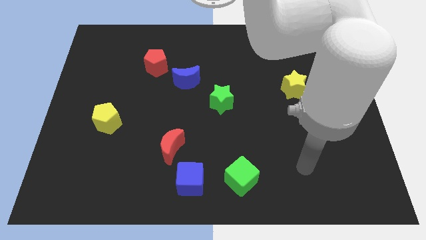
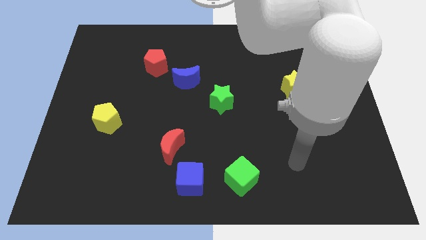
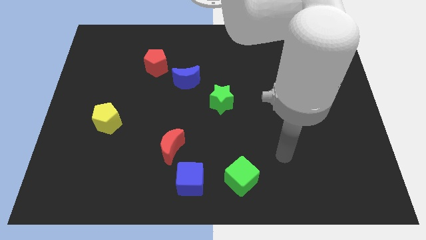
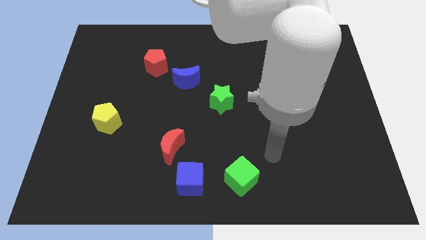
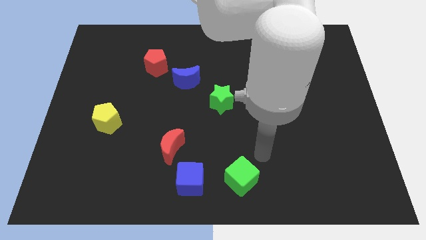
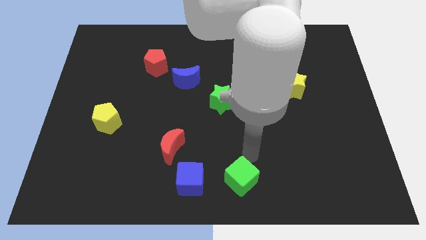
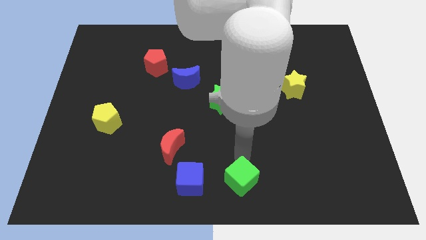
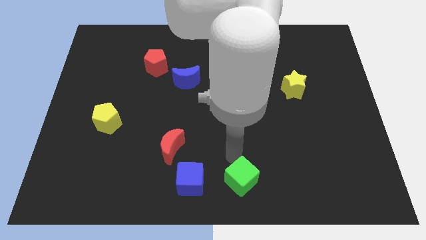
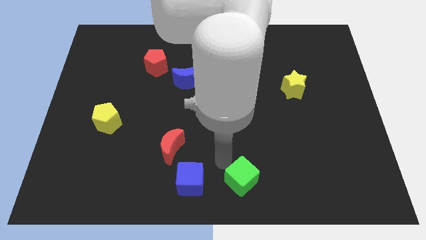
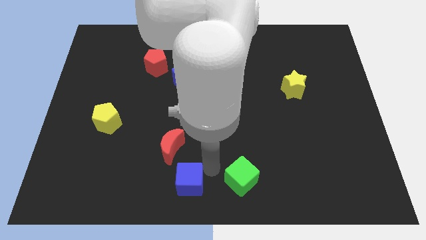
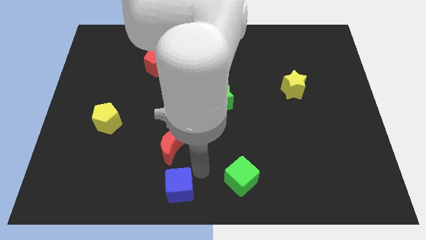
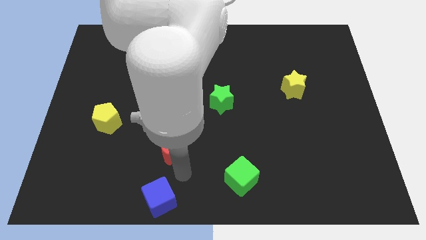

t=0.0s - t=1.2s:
move the red moon away from the blue cube

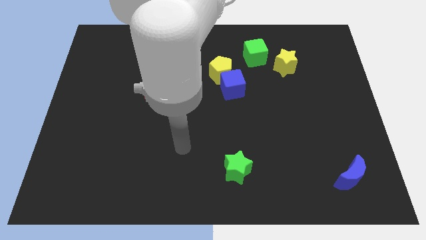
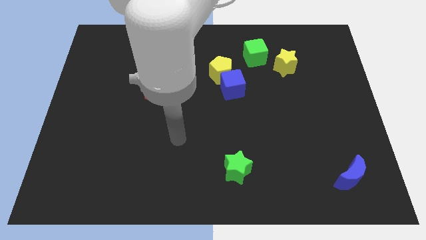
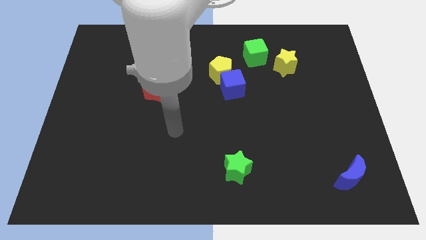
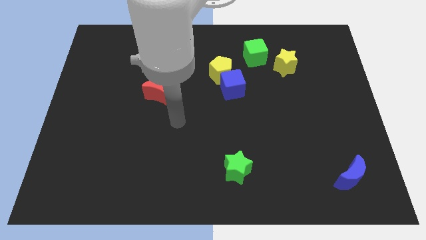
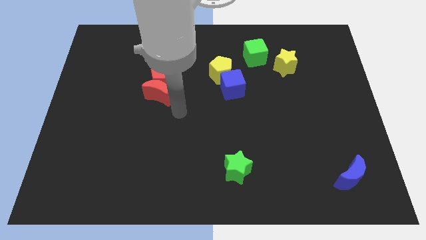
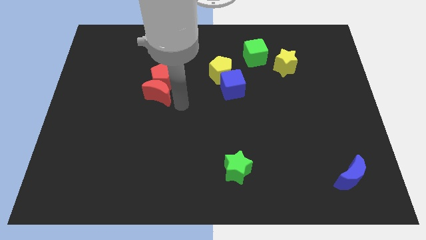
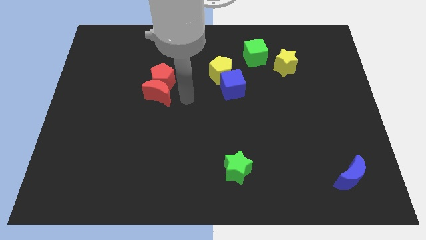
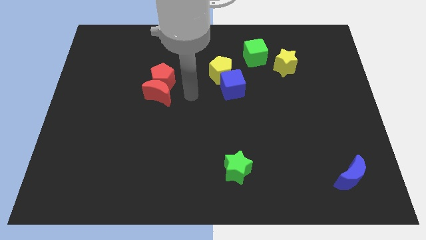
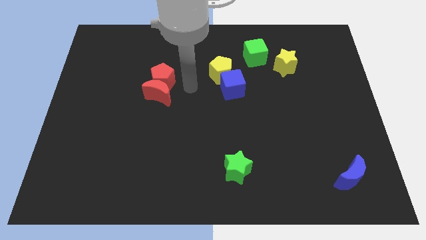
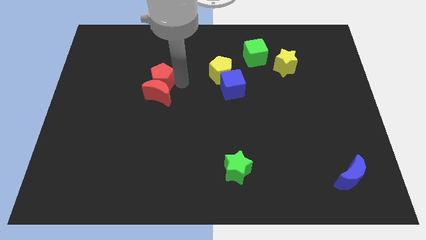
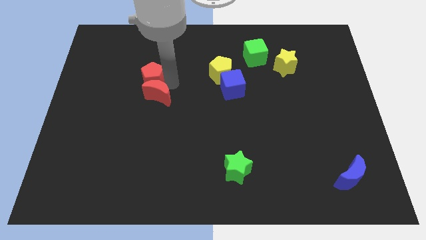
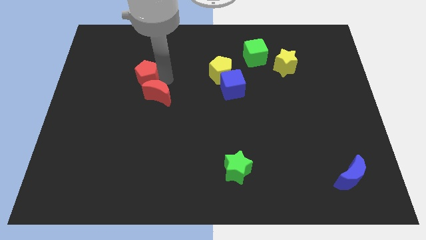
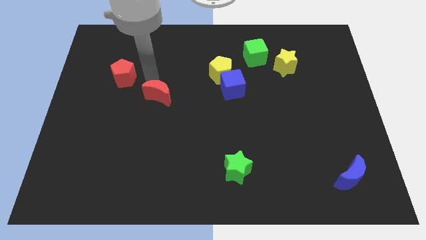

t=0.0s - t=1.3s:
separate the red moon from the red pentagon

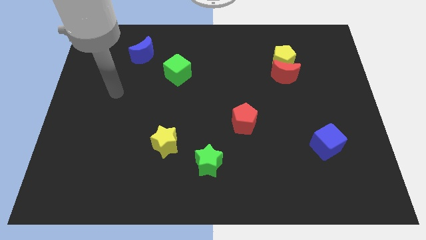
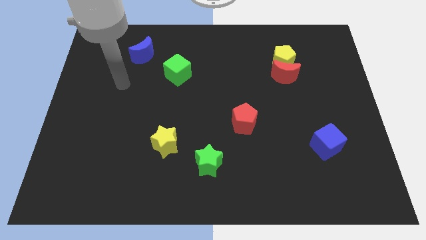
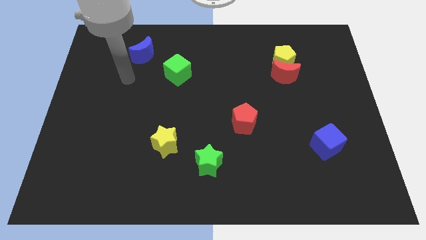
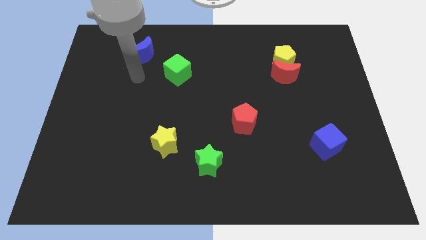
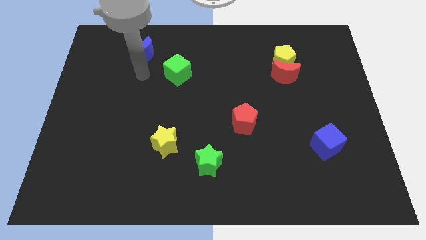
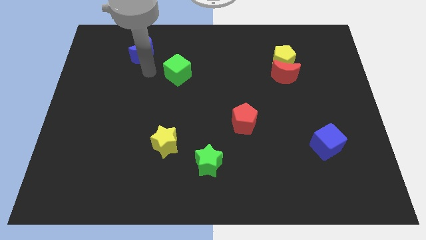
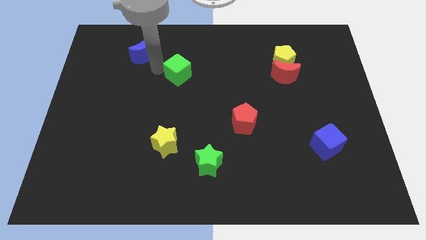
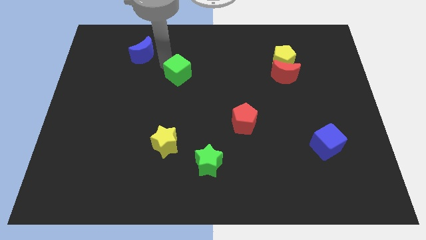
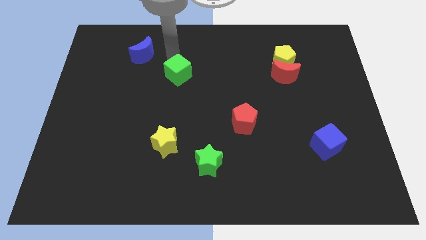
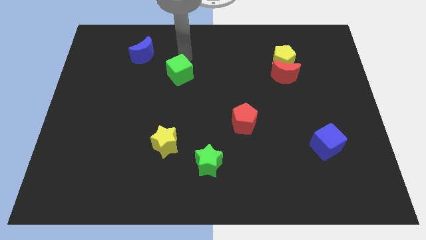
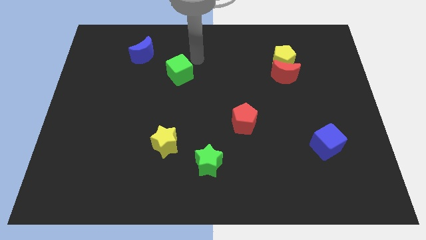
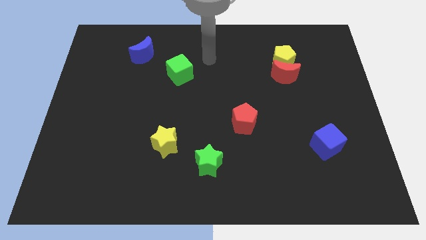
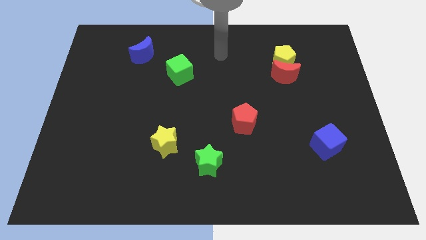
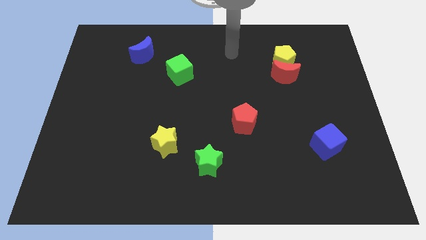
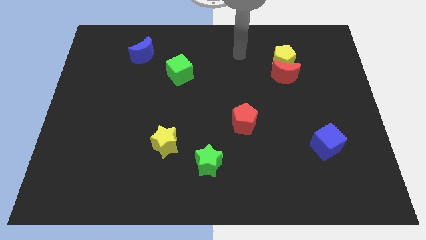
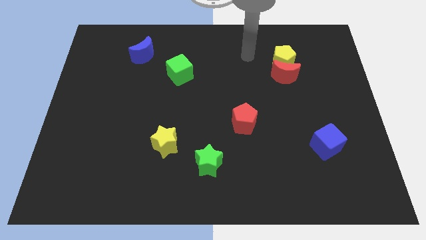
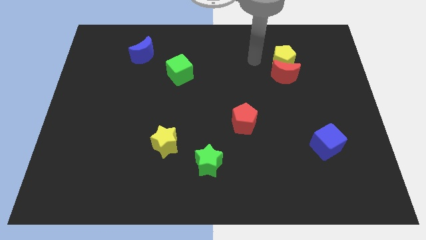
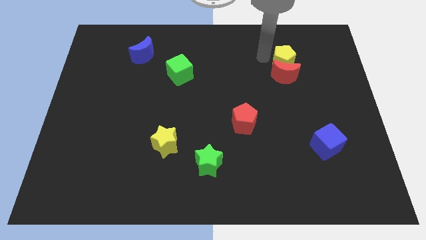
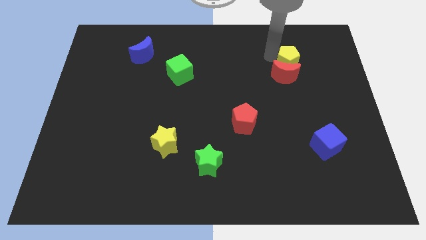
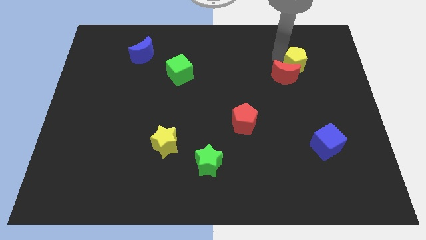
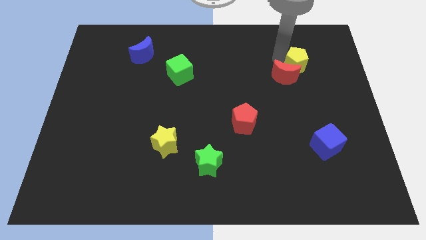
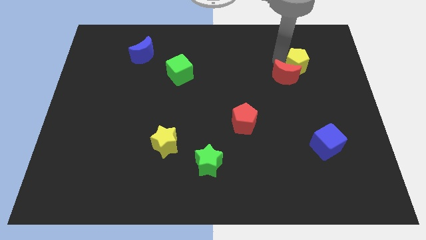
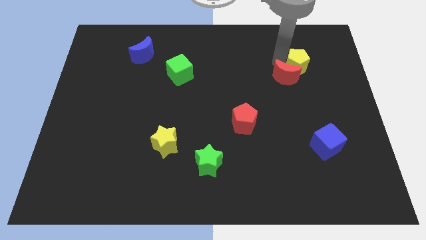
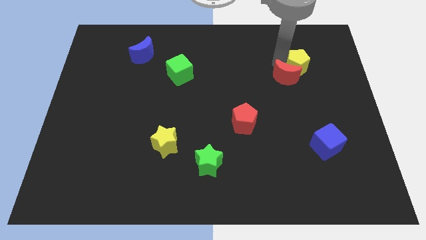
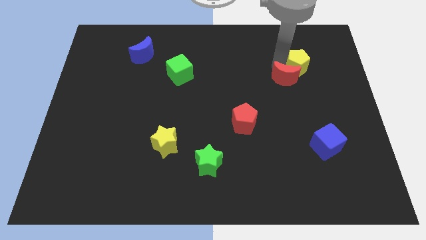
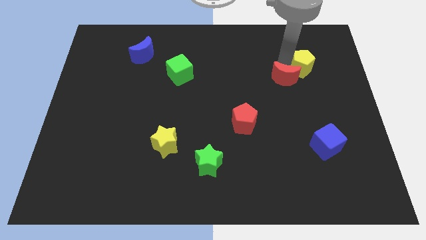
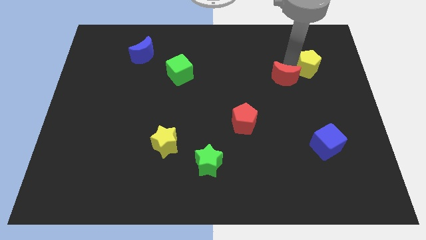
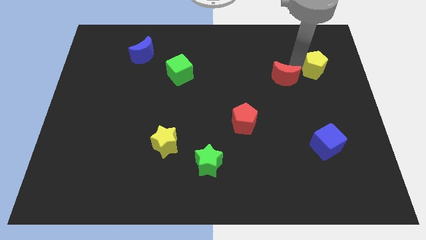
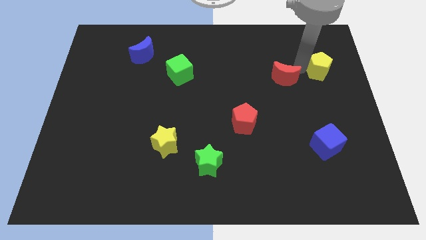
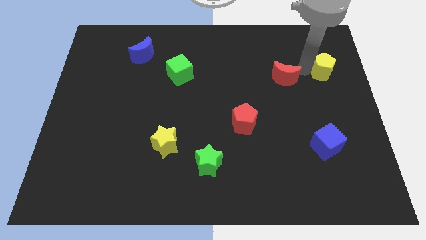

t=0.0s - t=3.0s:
move the red moon away from the yellow pentagon

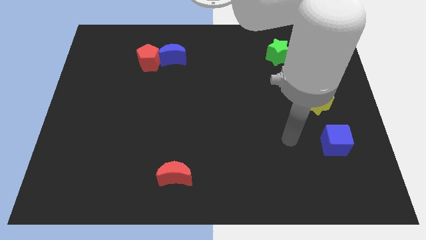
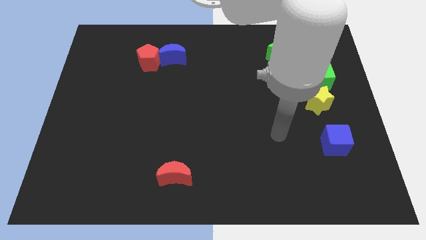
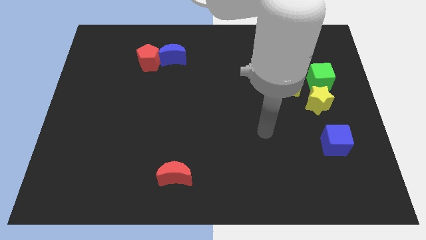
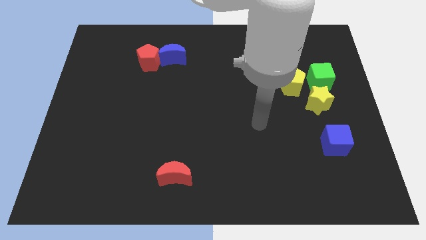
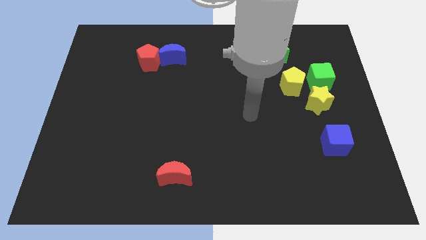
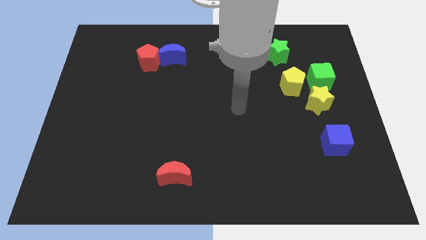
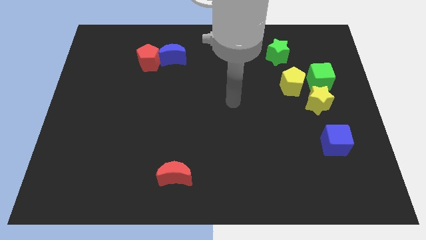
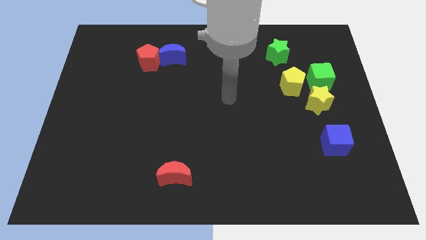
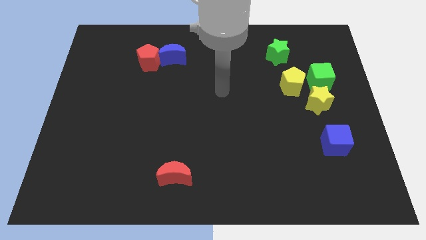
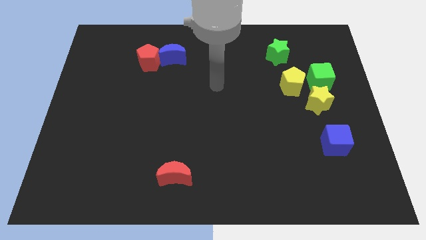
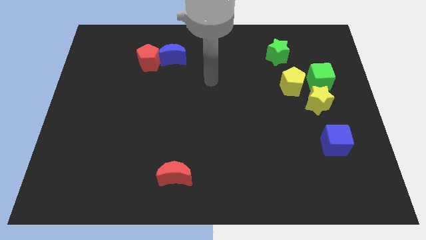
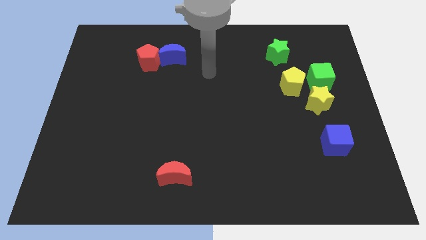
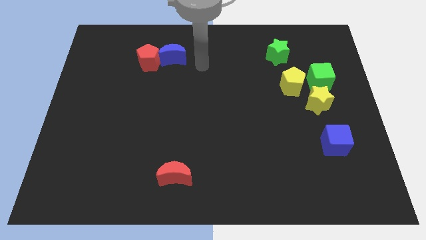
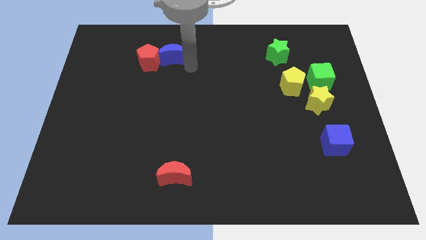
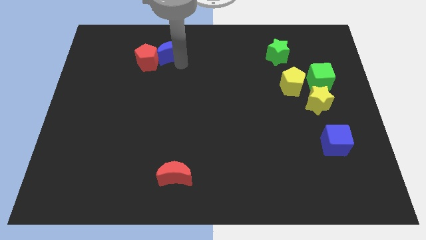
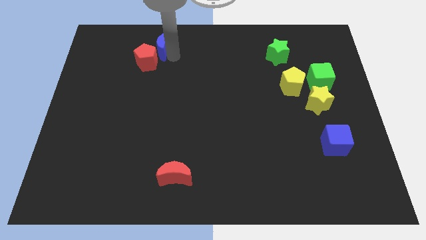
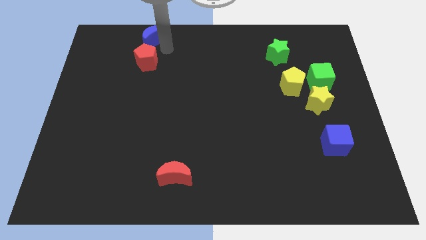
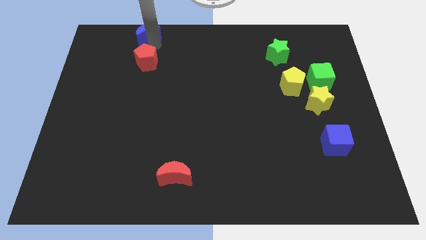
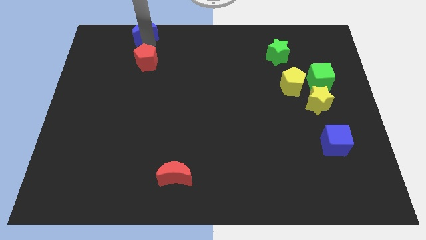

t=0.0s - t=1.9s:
pull the red pentagon apart from the blue moon

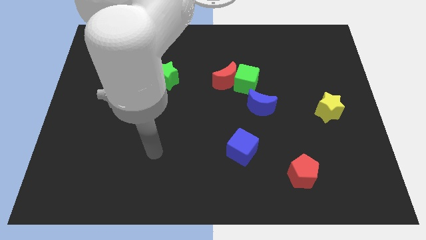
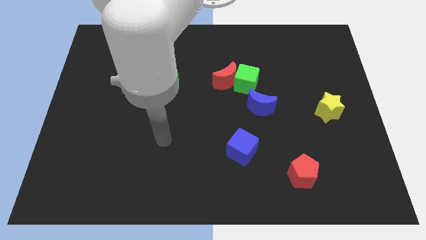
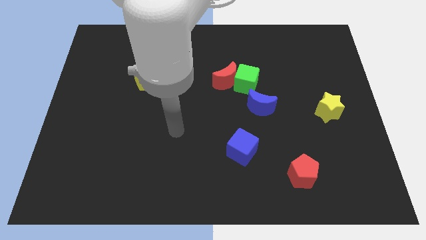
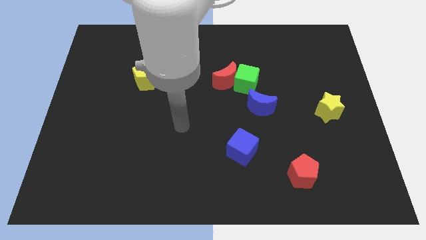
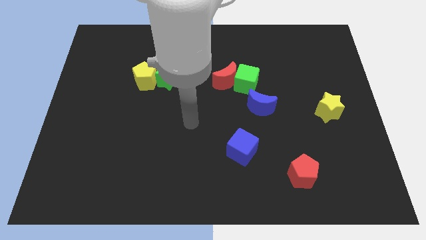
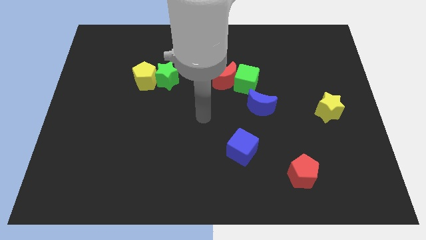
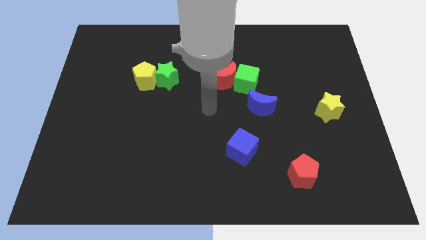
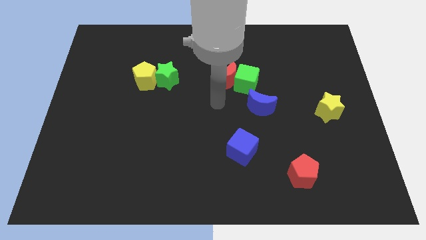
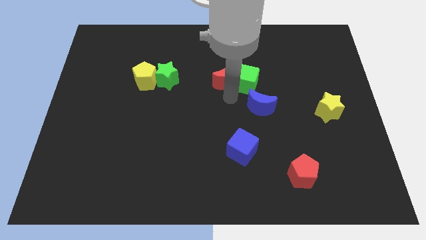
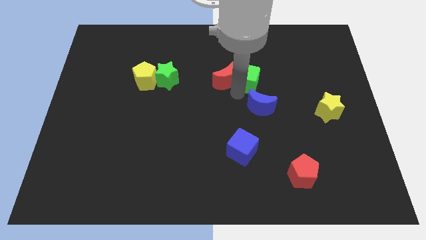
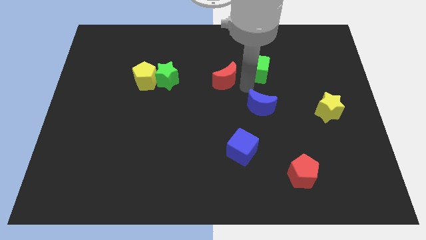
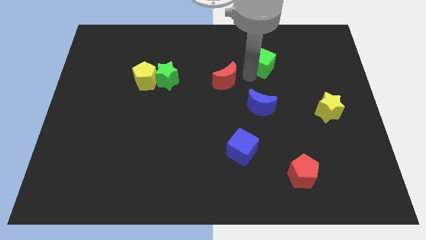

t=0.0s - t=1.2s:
pull the red moon apart from the green cube

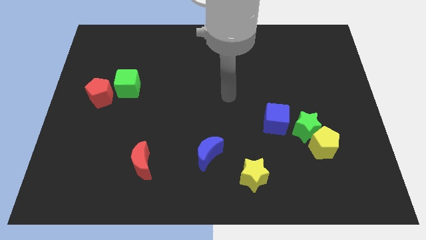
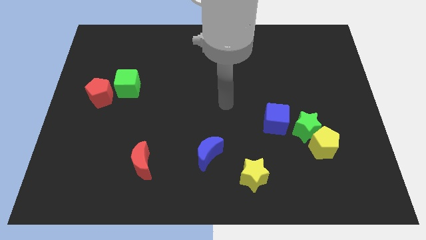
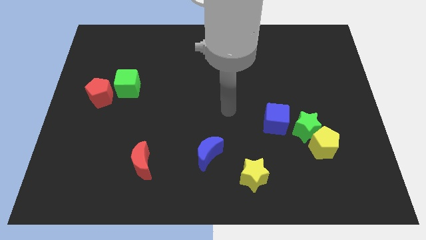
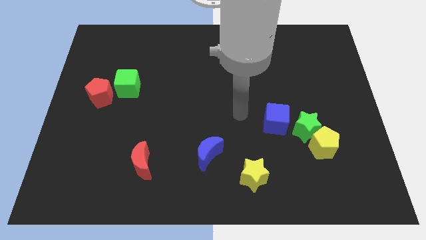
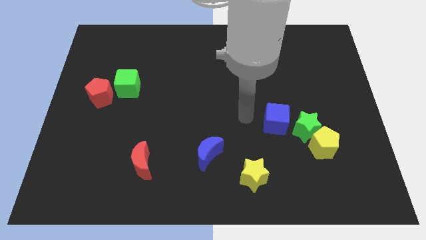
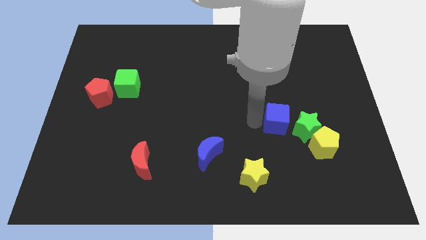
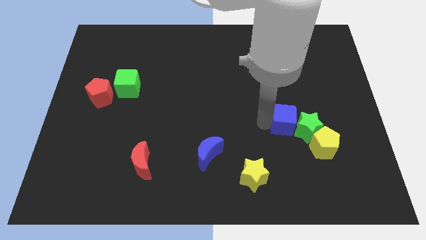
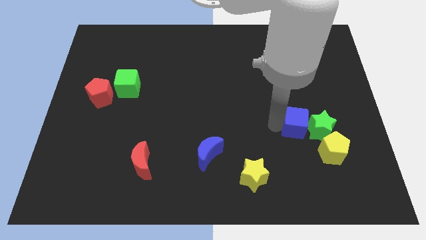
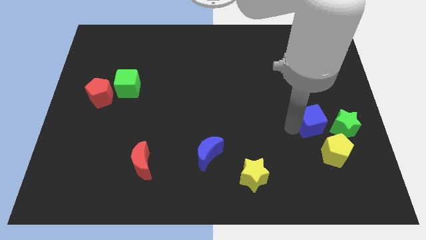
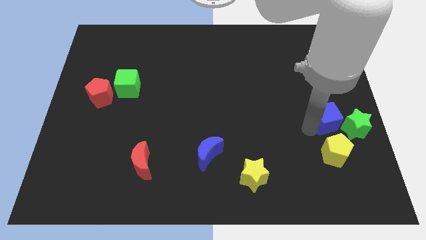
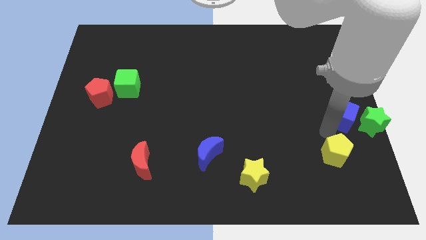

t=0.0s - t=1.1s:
pull the yellow pentagon apart from the green star
